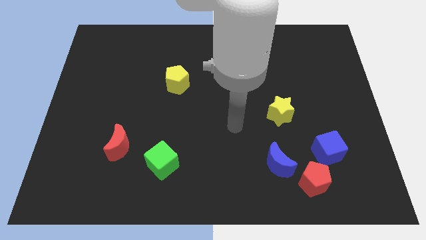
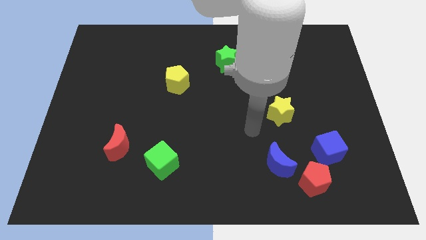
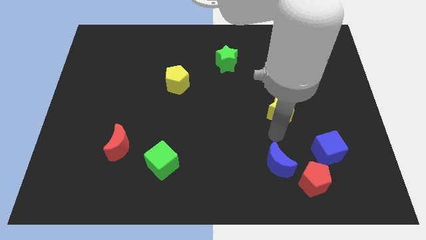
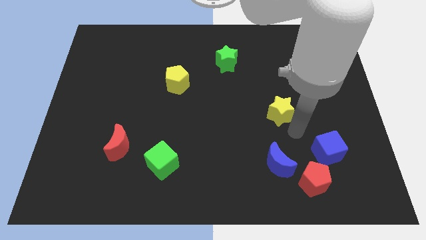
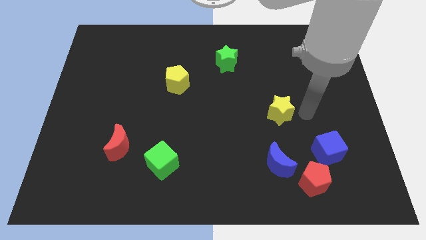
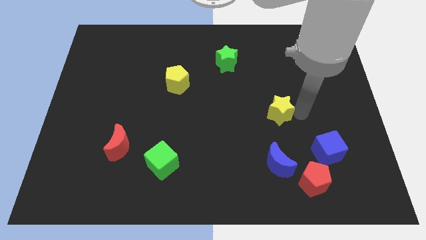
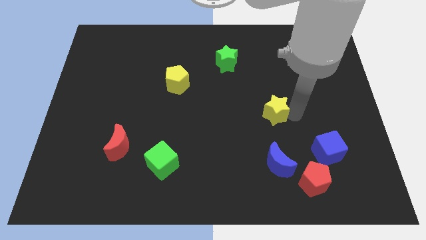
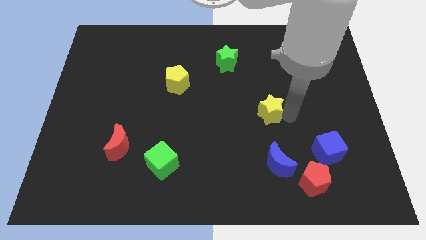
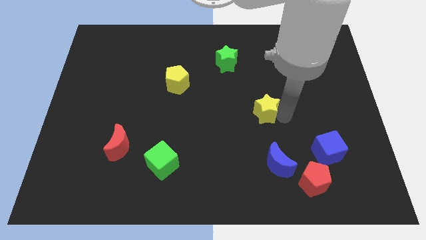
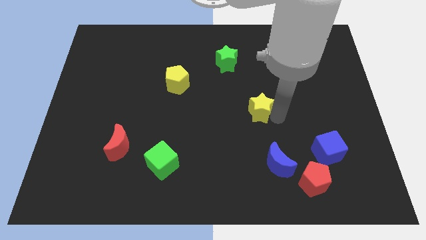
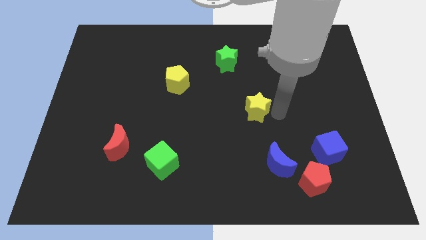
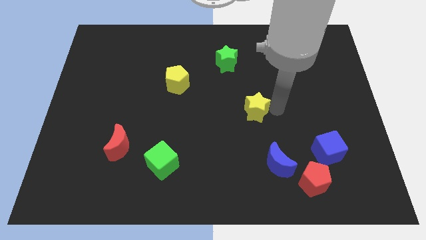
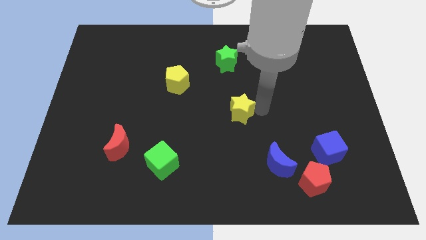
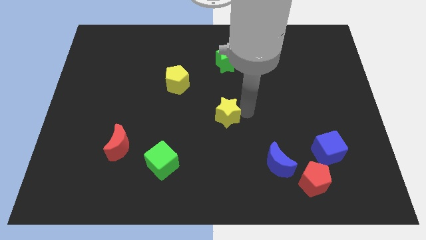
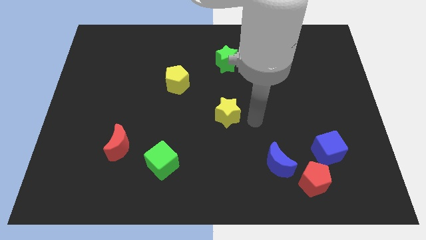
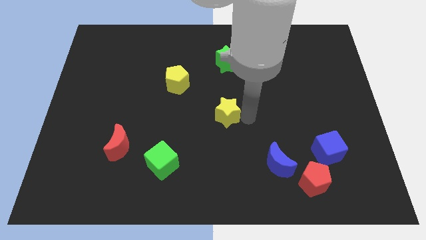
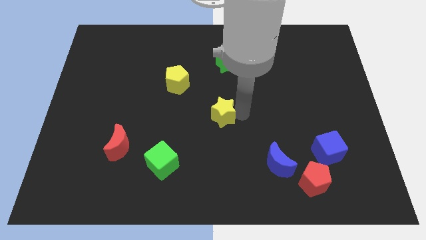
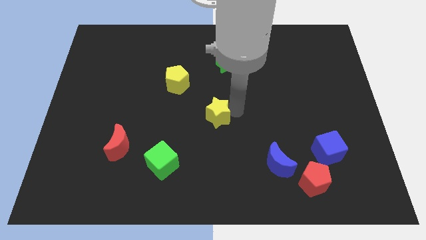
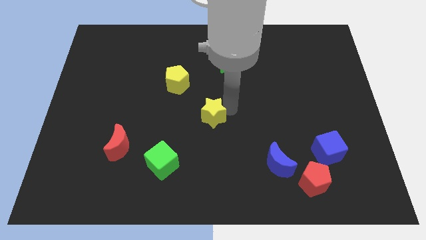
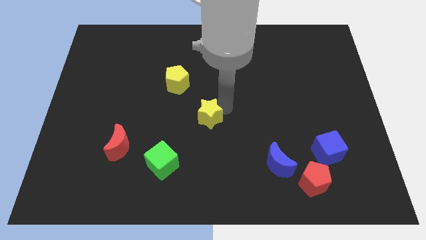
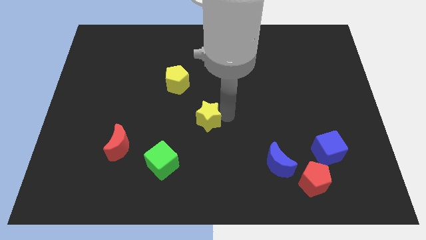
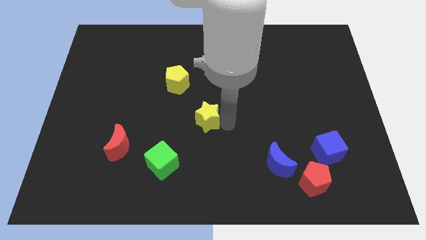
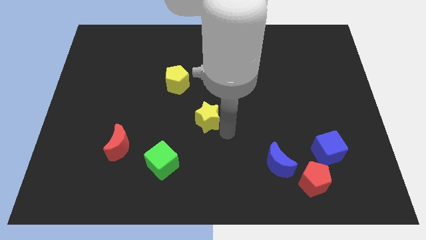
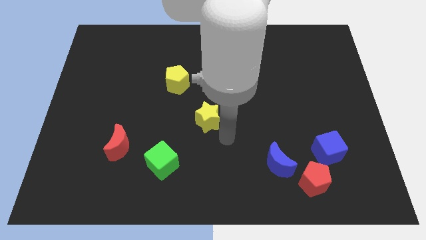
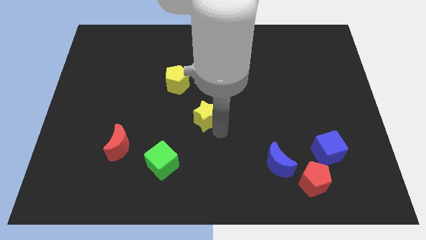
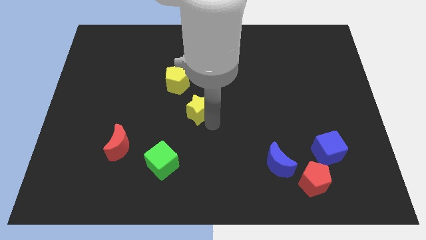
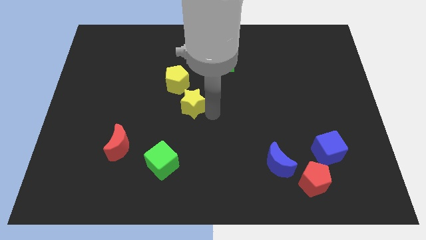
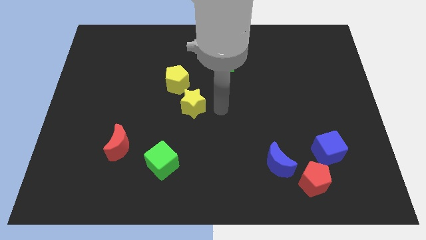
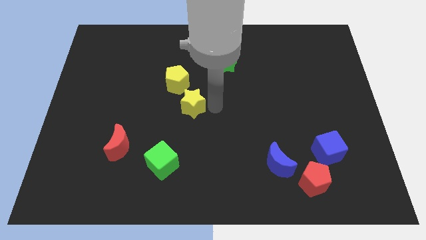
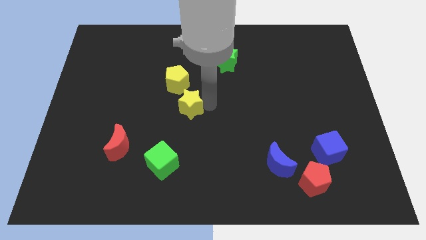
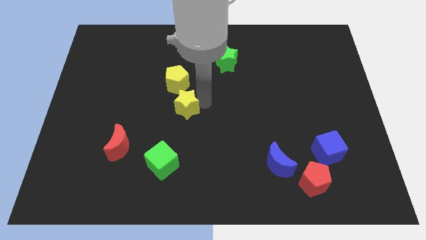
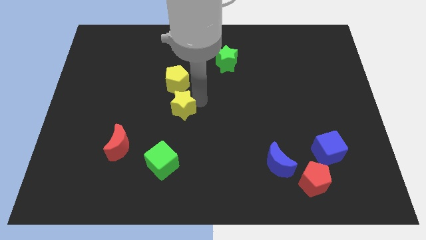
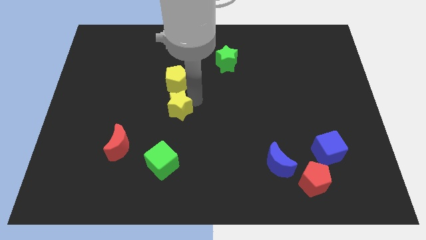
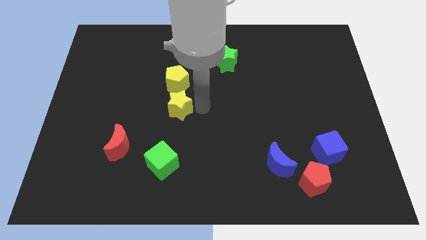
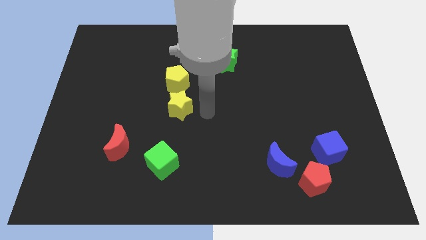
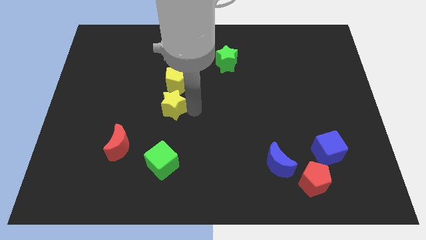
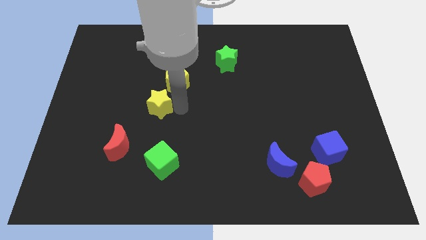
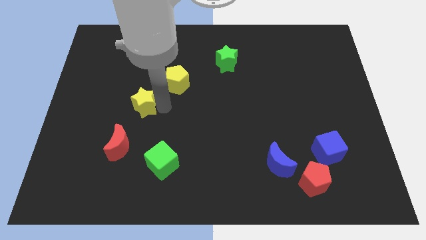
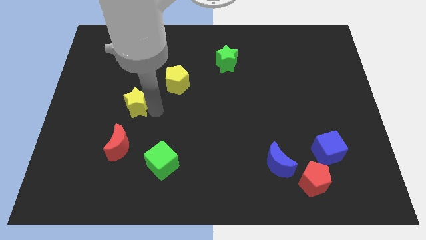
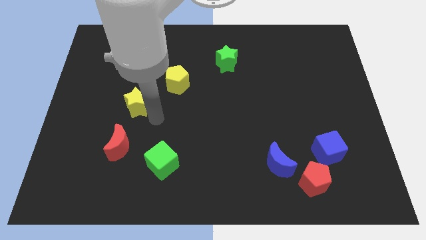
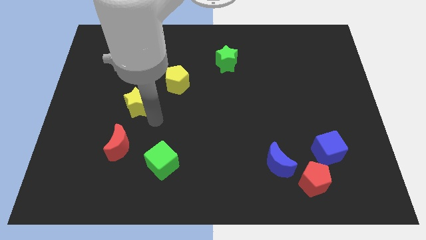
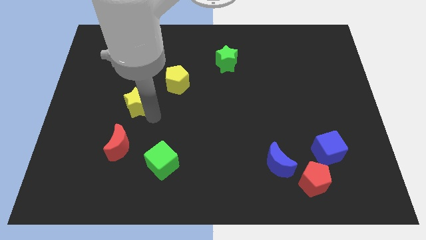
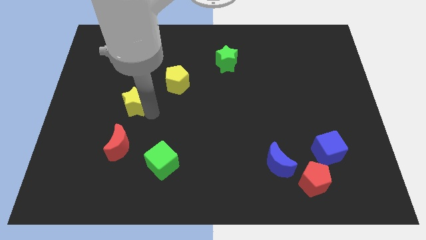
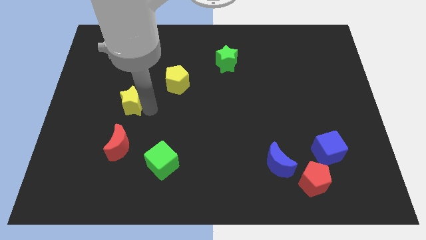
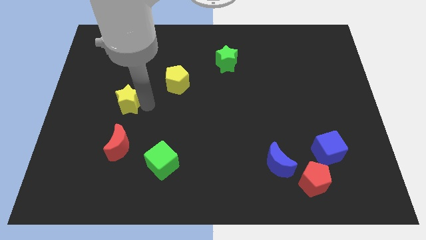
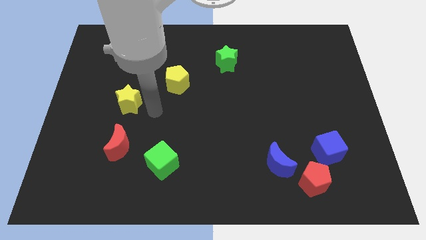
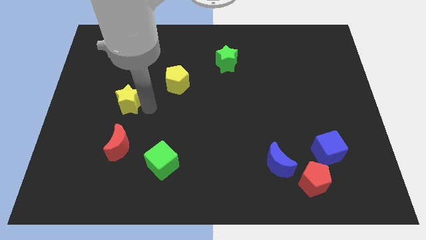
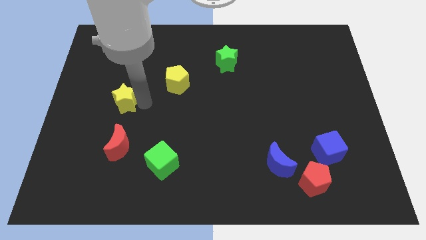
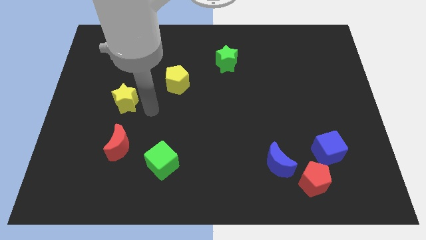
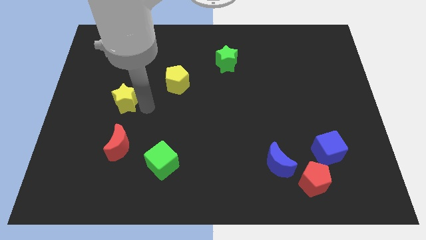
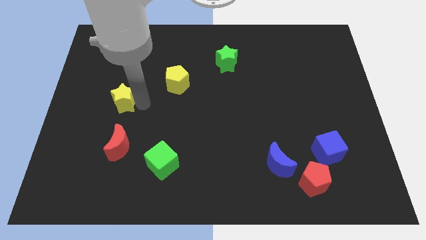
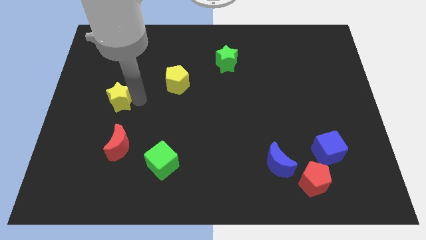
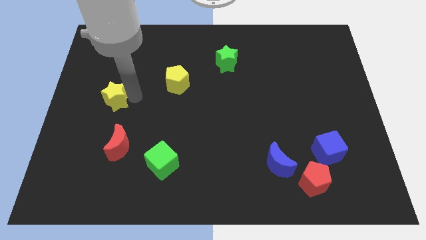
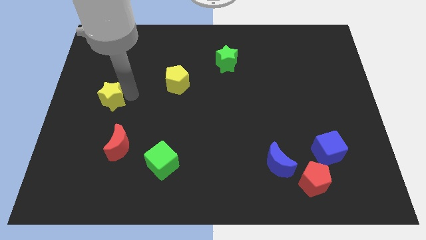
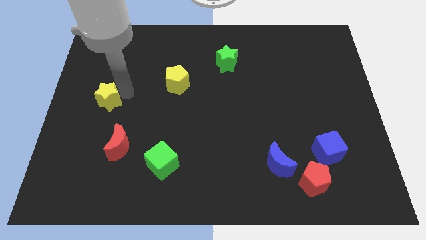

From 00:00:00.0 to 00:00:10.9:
put the yellow star to the center left
